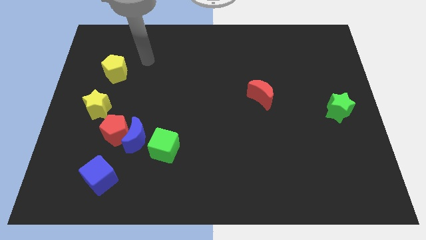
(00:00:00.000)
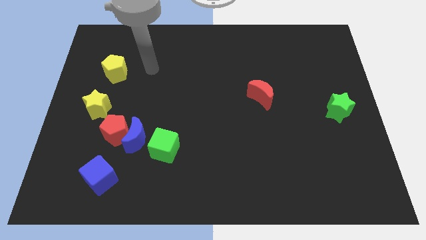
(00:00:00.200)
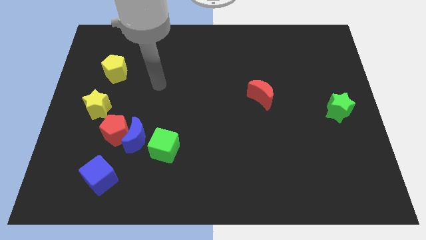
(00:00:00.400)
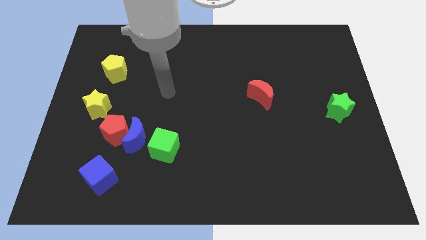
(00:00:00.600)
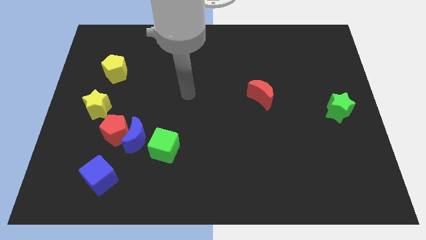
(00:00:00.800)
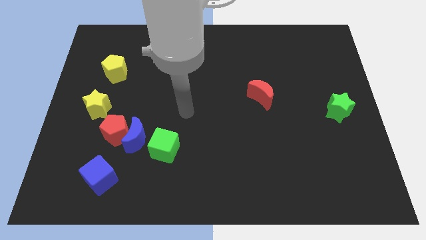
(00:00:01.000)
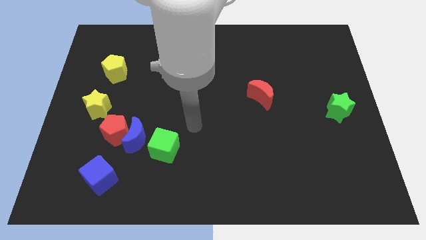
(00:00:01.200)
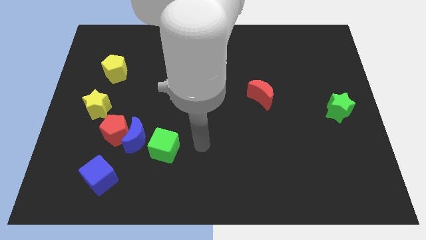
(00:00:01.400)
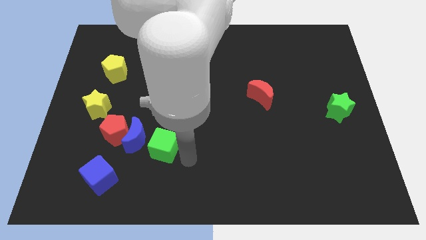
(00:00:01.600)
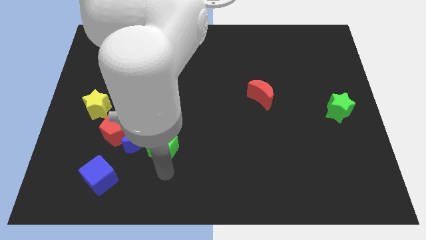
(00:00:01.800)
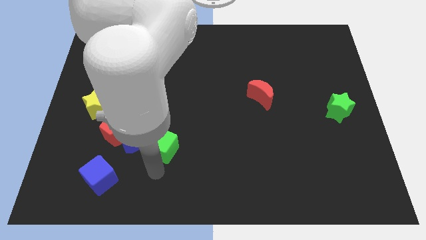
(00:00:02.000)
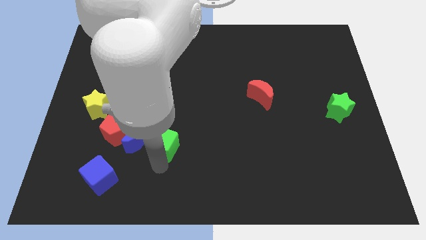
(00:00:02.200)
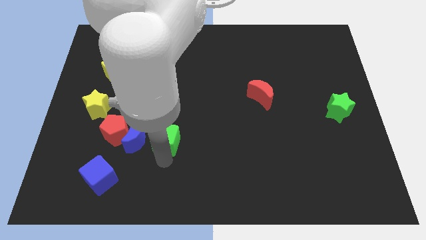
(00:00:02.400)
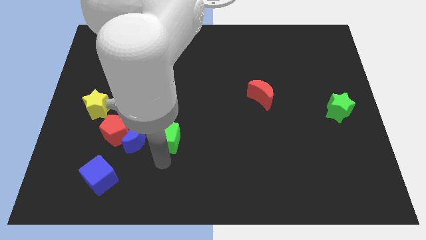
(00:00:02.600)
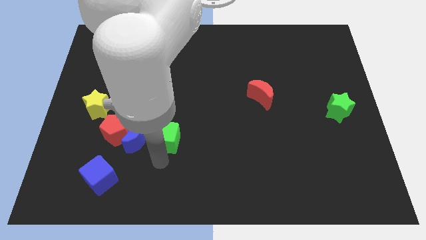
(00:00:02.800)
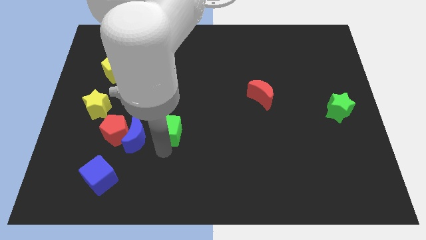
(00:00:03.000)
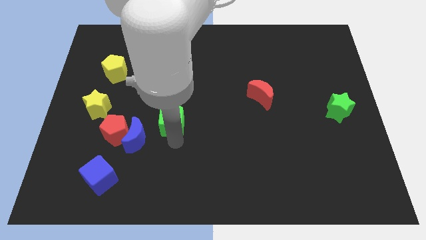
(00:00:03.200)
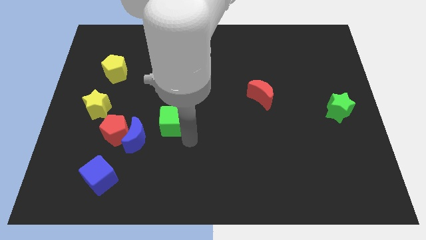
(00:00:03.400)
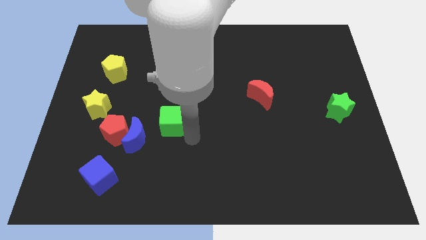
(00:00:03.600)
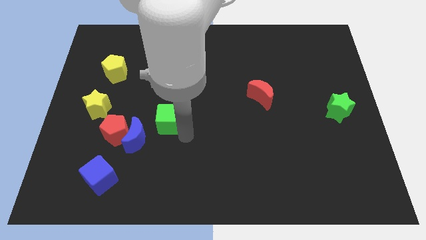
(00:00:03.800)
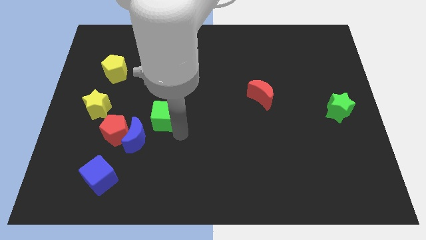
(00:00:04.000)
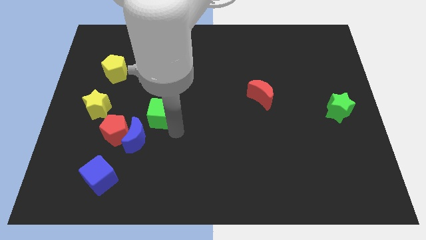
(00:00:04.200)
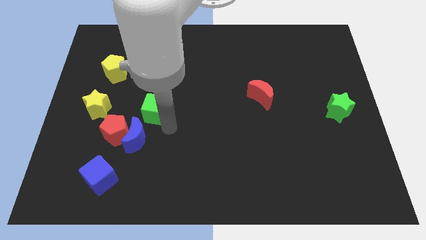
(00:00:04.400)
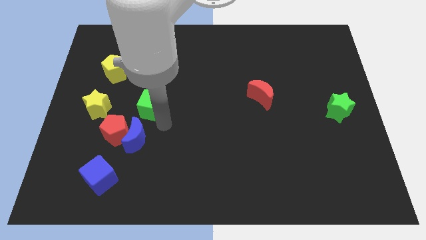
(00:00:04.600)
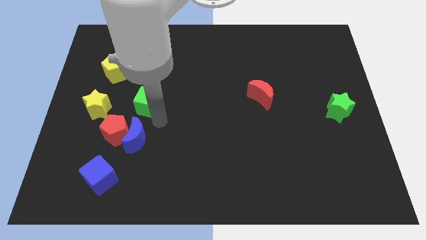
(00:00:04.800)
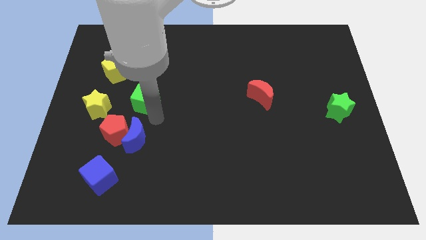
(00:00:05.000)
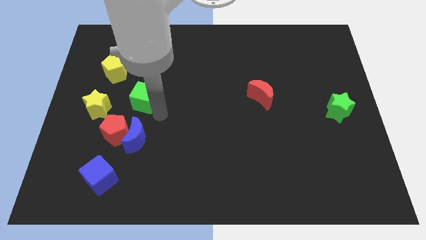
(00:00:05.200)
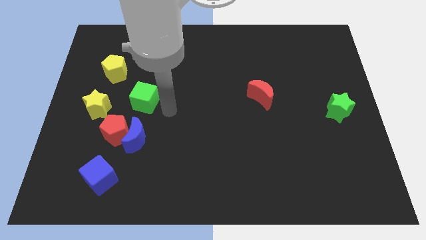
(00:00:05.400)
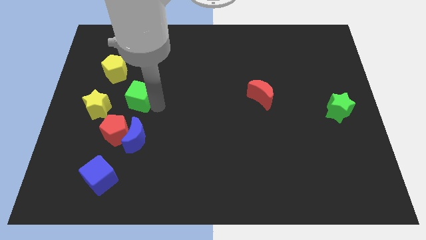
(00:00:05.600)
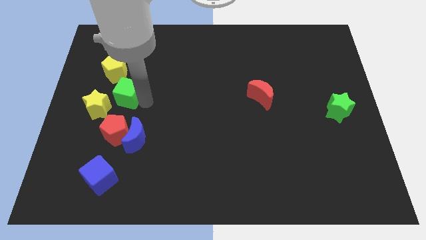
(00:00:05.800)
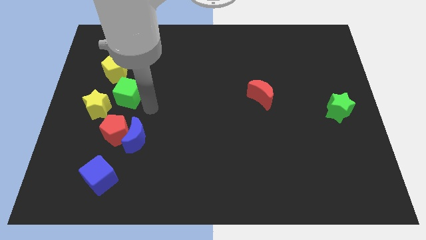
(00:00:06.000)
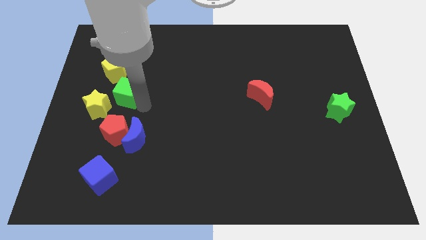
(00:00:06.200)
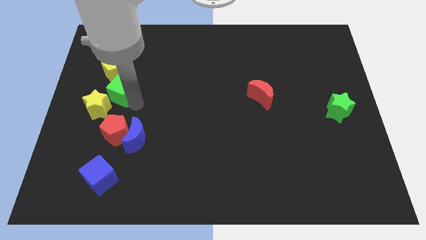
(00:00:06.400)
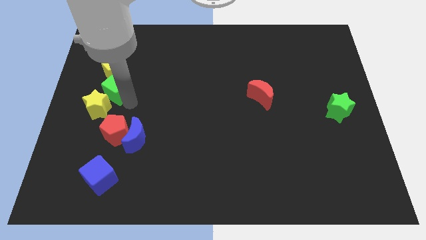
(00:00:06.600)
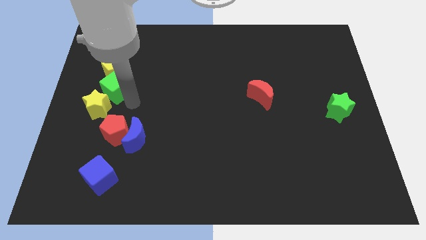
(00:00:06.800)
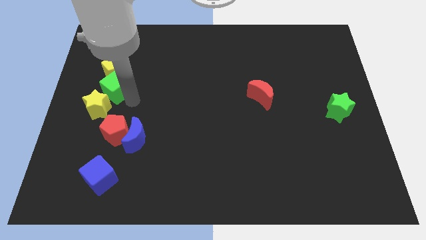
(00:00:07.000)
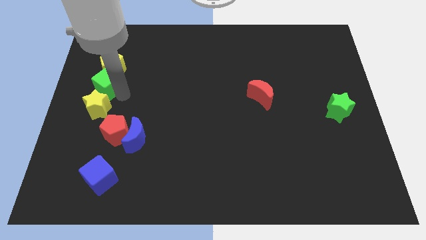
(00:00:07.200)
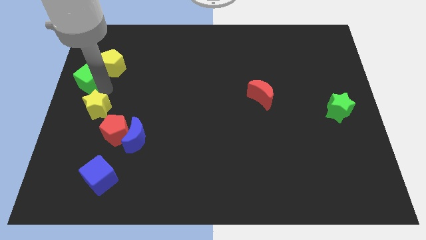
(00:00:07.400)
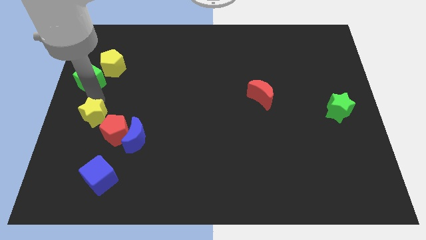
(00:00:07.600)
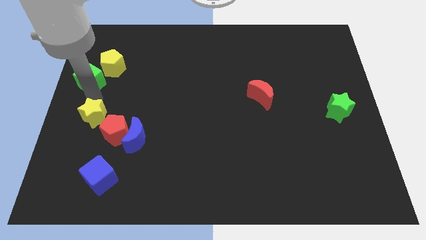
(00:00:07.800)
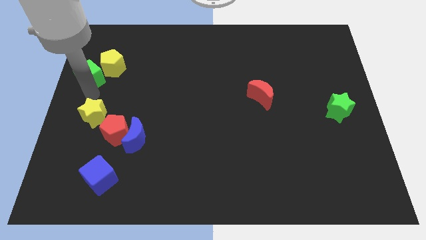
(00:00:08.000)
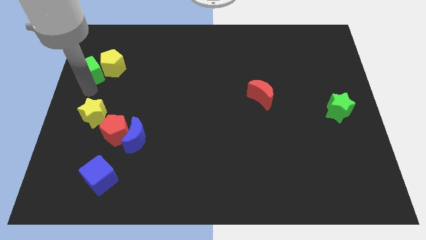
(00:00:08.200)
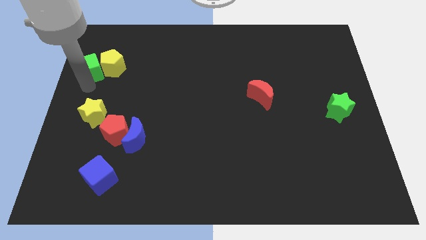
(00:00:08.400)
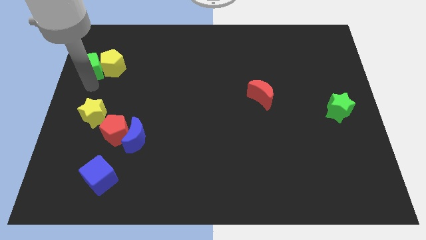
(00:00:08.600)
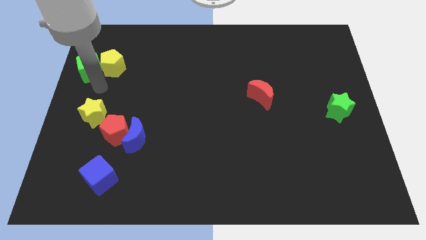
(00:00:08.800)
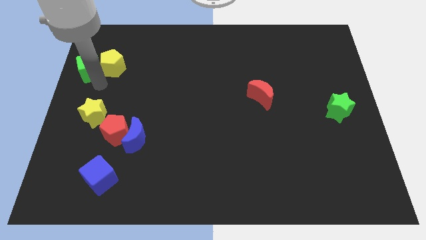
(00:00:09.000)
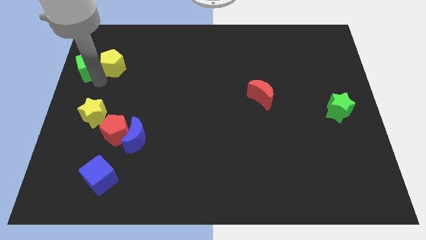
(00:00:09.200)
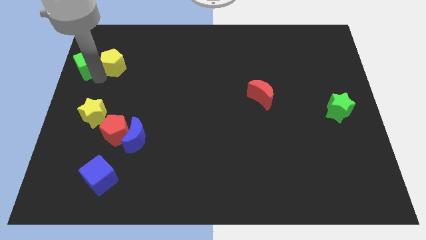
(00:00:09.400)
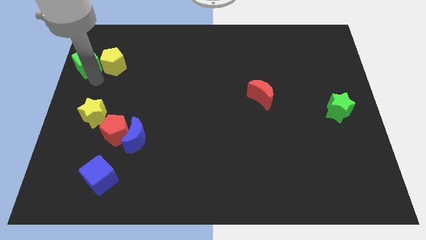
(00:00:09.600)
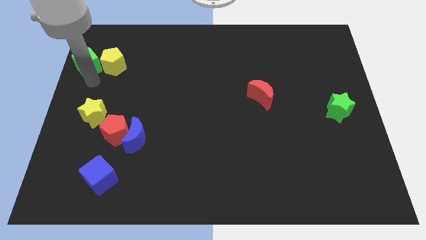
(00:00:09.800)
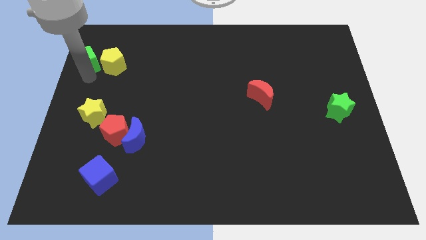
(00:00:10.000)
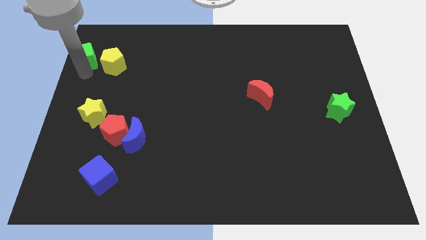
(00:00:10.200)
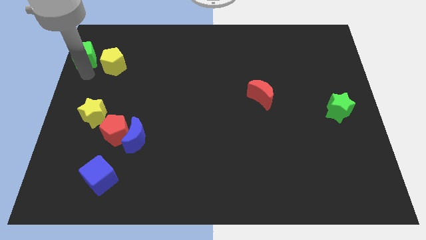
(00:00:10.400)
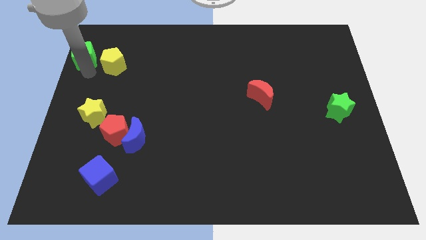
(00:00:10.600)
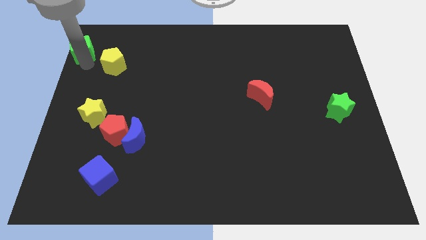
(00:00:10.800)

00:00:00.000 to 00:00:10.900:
move the green cube to the upper left corner

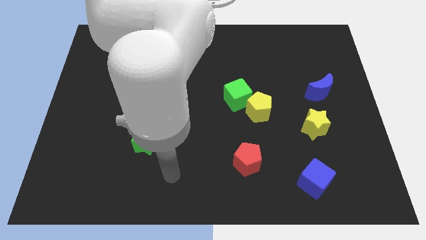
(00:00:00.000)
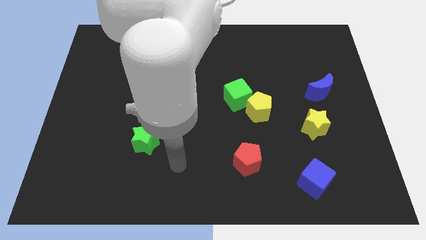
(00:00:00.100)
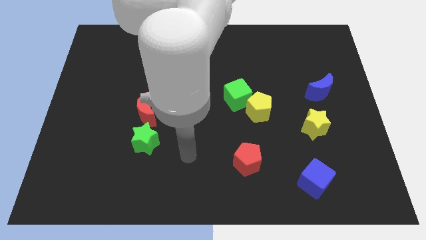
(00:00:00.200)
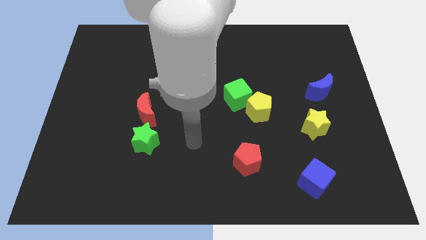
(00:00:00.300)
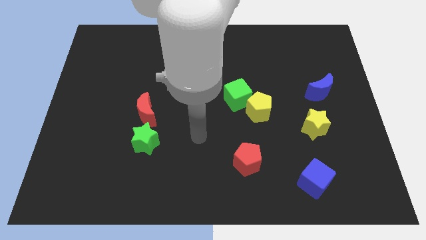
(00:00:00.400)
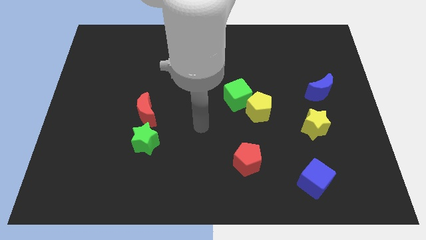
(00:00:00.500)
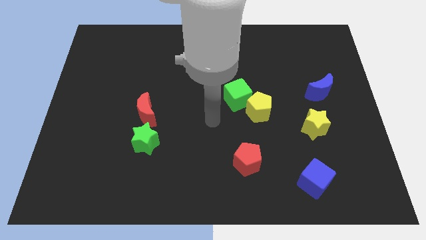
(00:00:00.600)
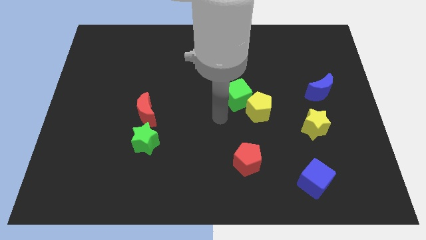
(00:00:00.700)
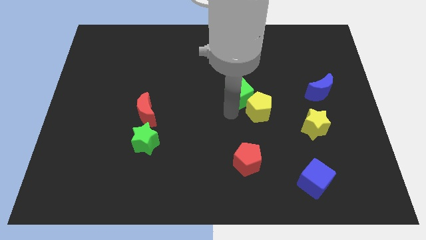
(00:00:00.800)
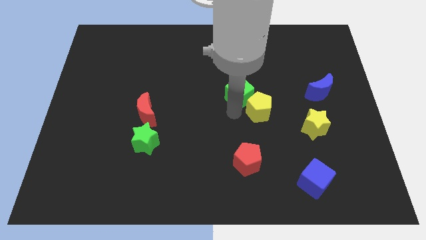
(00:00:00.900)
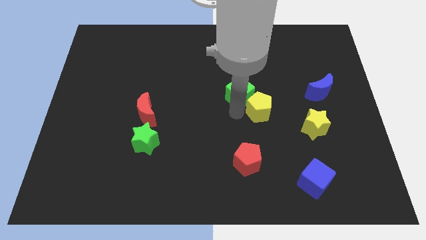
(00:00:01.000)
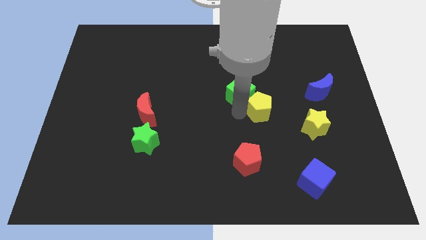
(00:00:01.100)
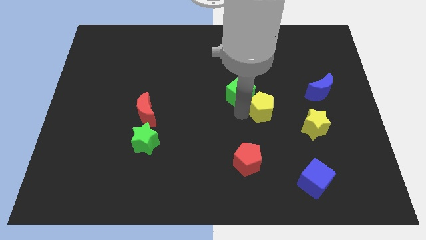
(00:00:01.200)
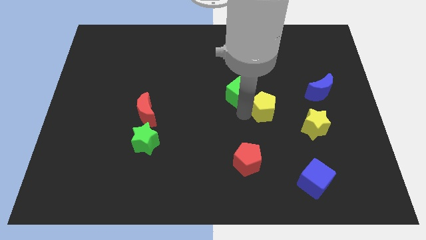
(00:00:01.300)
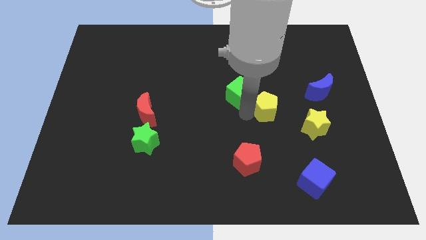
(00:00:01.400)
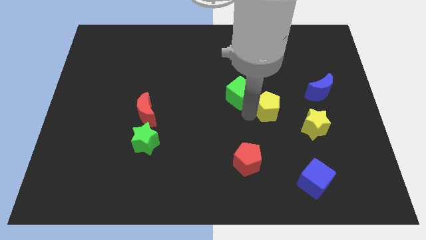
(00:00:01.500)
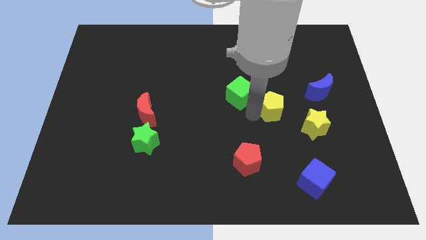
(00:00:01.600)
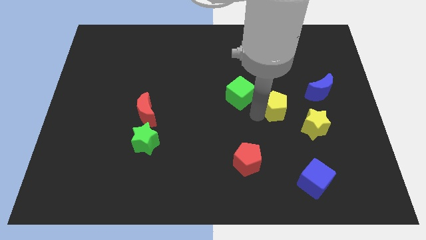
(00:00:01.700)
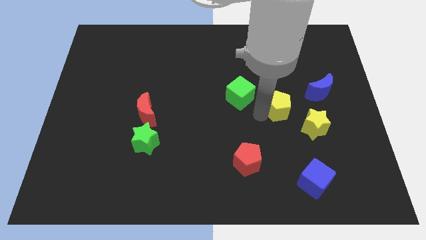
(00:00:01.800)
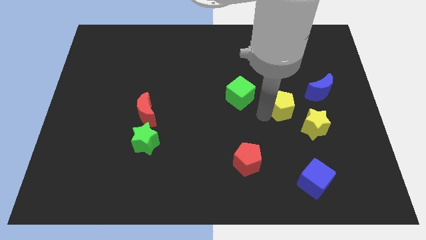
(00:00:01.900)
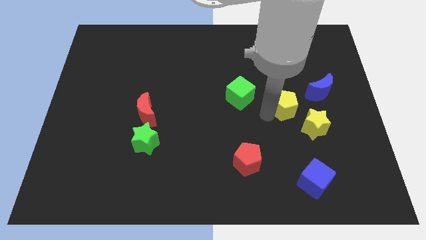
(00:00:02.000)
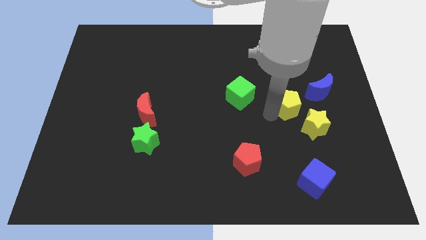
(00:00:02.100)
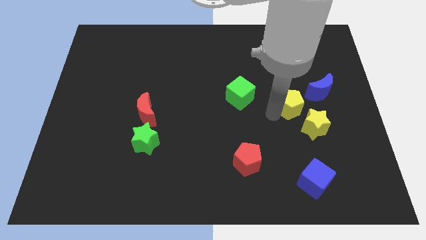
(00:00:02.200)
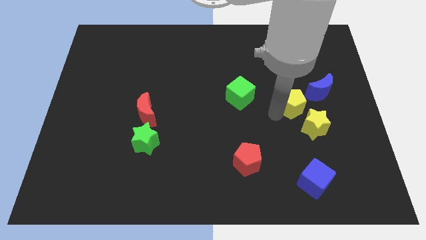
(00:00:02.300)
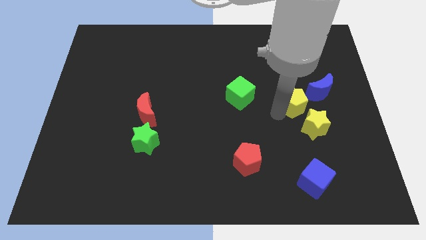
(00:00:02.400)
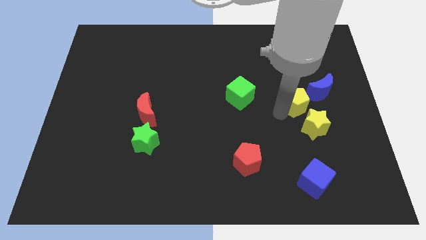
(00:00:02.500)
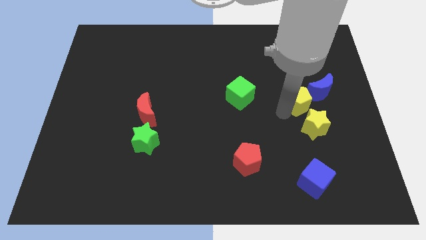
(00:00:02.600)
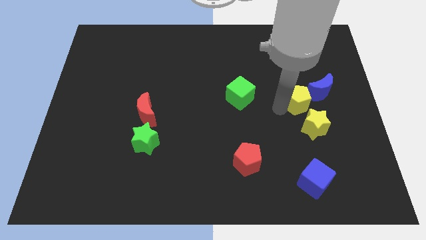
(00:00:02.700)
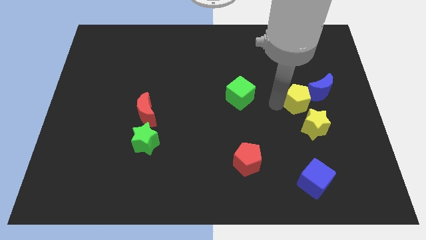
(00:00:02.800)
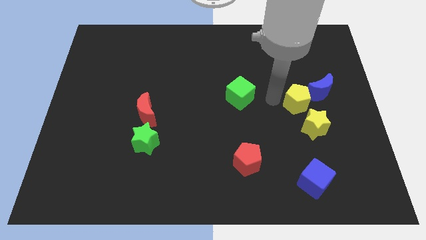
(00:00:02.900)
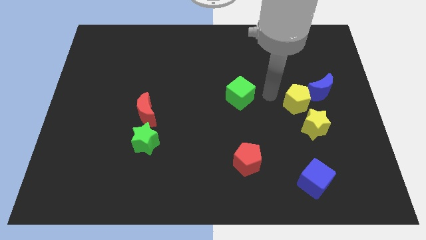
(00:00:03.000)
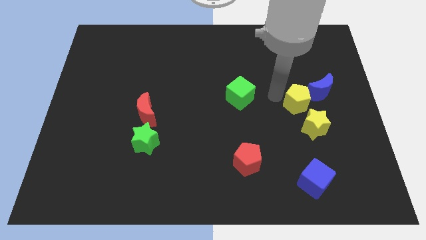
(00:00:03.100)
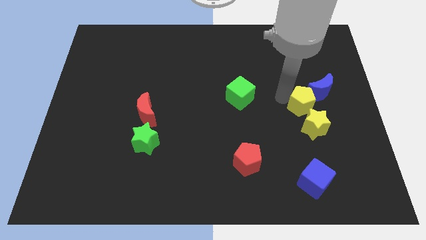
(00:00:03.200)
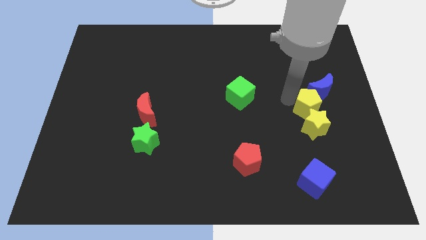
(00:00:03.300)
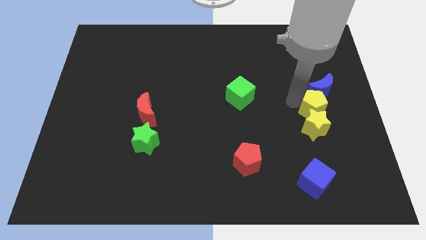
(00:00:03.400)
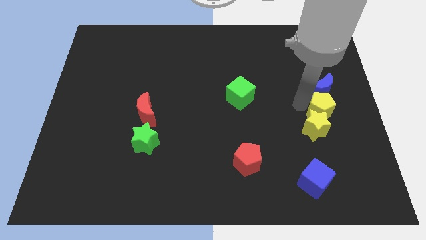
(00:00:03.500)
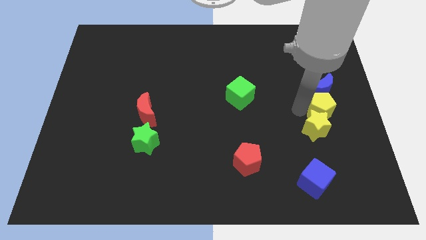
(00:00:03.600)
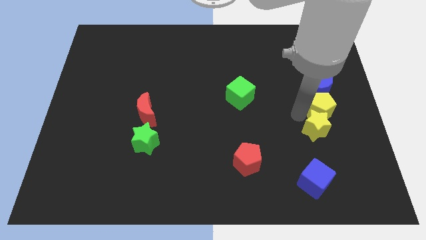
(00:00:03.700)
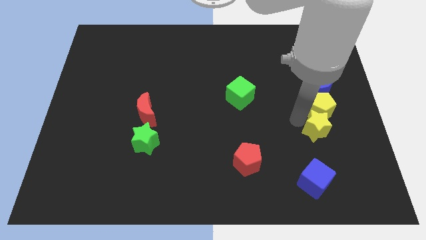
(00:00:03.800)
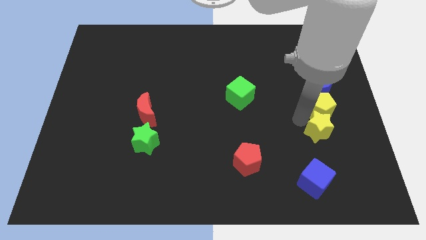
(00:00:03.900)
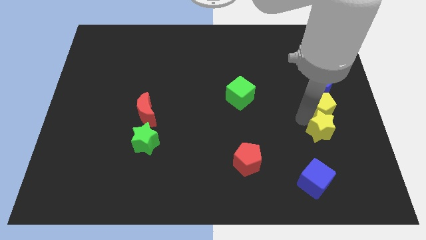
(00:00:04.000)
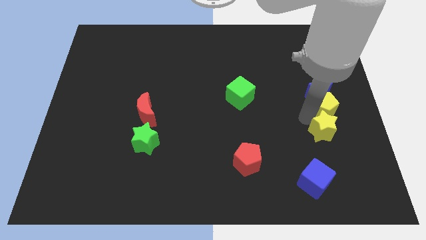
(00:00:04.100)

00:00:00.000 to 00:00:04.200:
put the yellow pentagon to the right side
